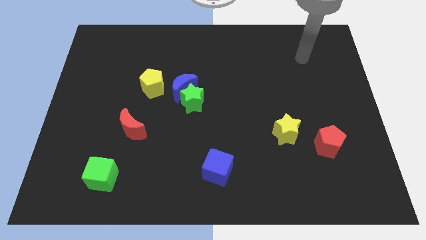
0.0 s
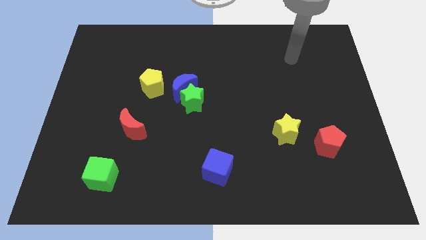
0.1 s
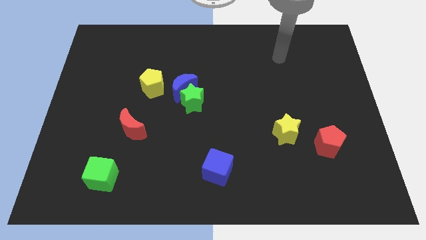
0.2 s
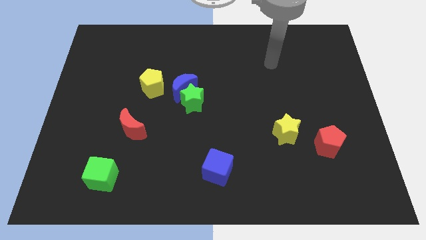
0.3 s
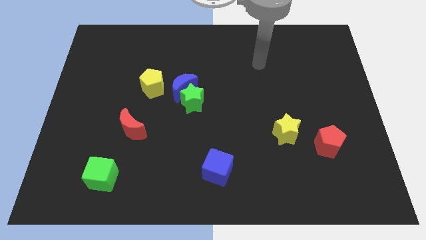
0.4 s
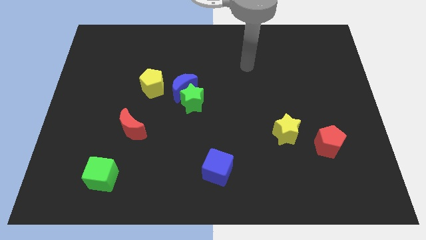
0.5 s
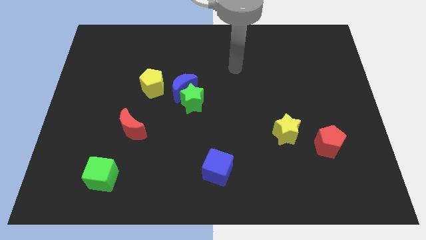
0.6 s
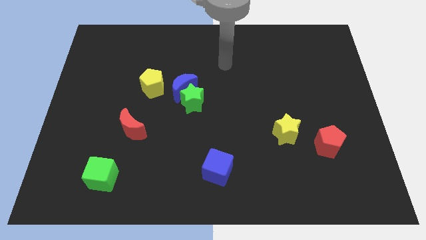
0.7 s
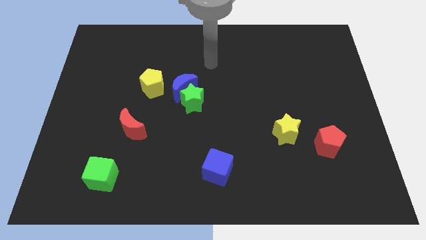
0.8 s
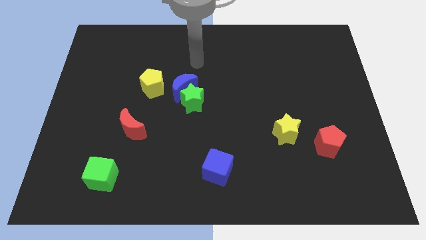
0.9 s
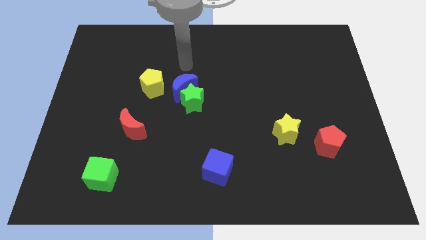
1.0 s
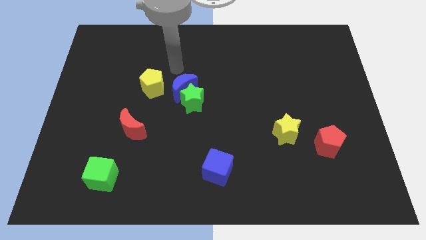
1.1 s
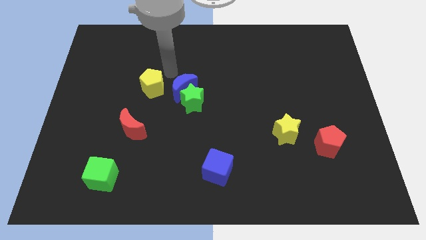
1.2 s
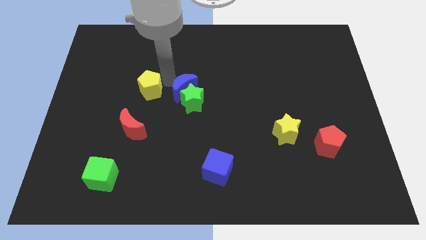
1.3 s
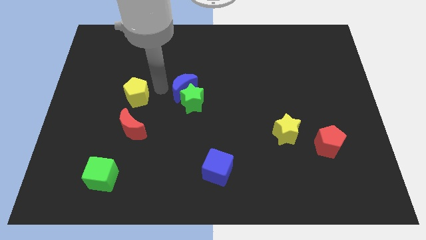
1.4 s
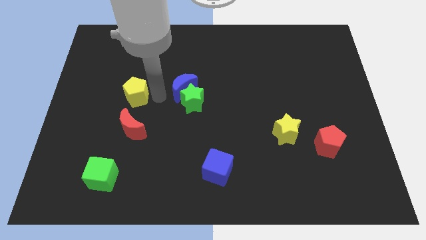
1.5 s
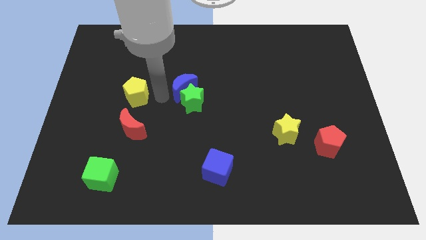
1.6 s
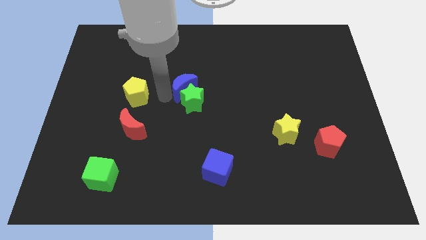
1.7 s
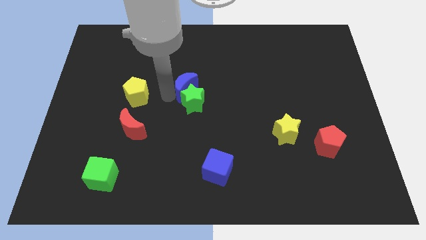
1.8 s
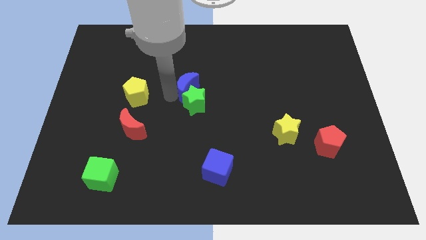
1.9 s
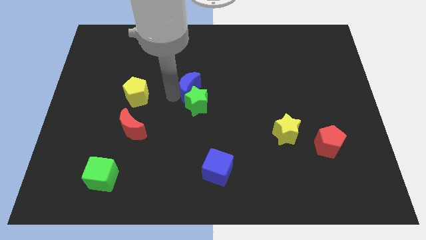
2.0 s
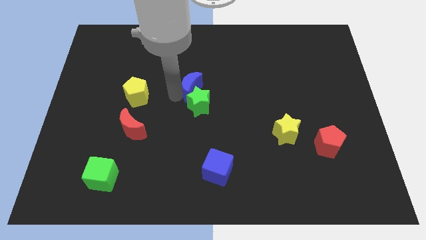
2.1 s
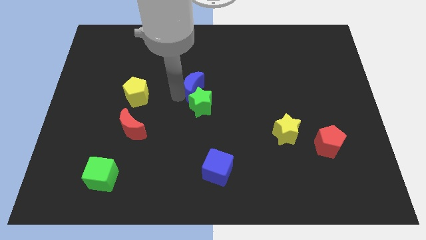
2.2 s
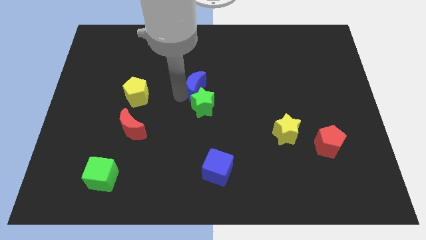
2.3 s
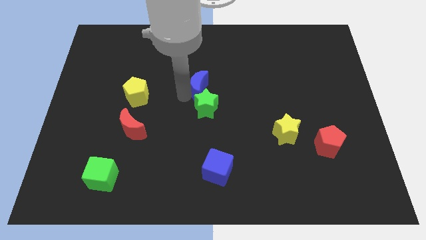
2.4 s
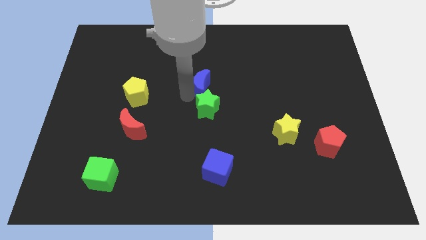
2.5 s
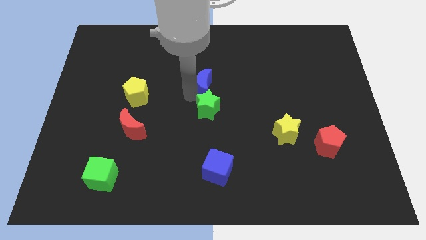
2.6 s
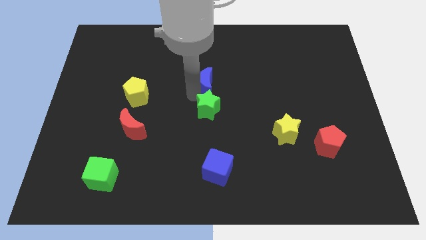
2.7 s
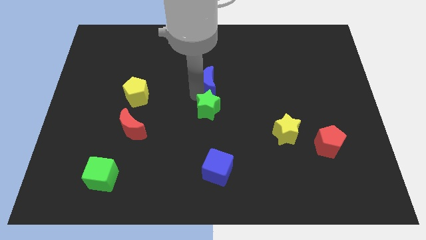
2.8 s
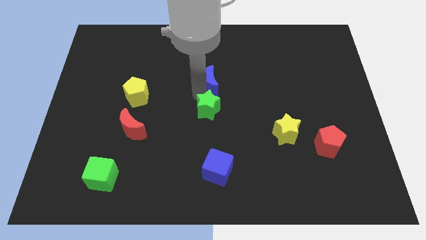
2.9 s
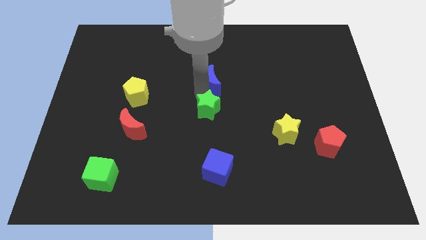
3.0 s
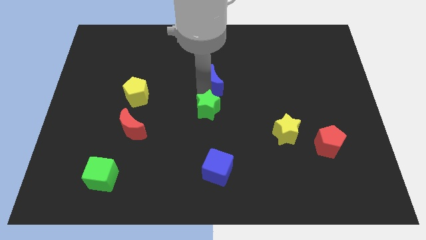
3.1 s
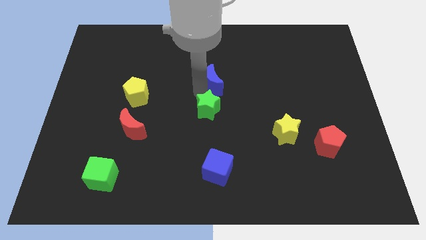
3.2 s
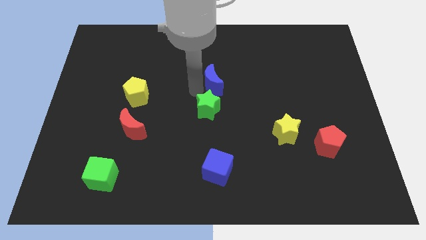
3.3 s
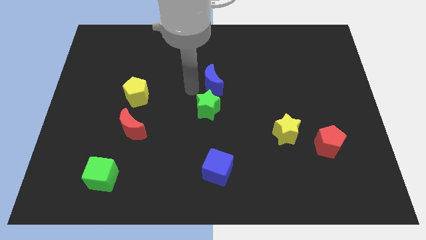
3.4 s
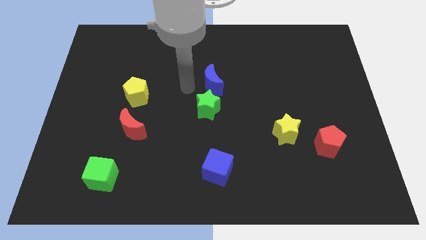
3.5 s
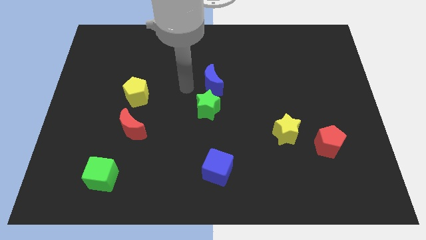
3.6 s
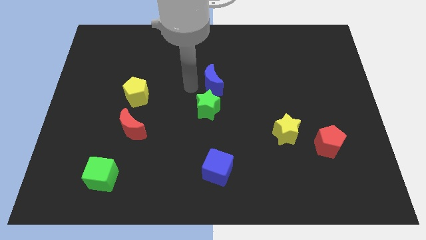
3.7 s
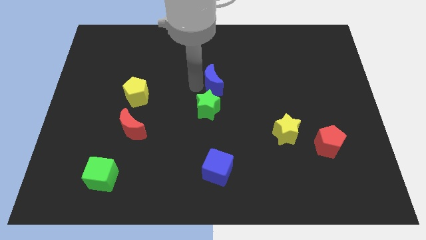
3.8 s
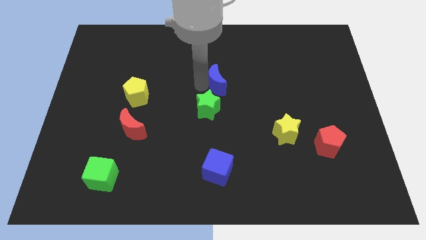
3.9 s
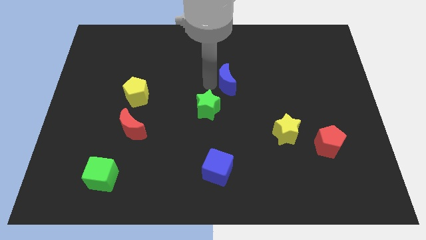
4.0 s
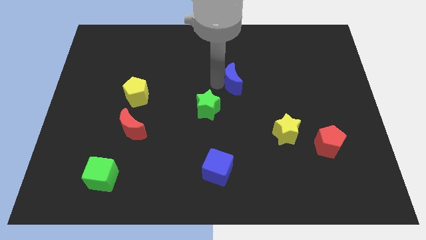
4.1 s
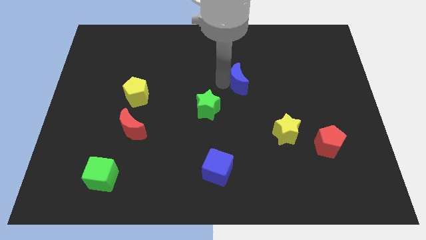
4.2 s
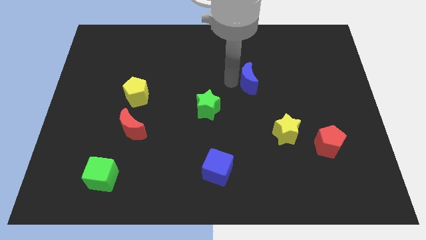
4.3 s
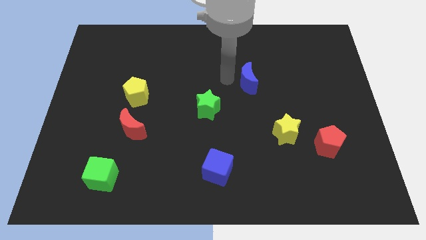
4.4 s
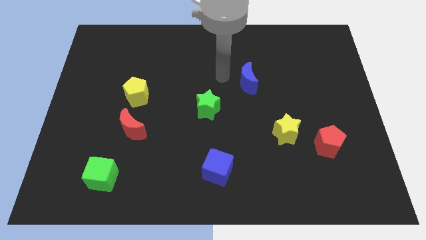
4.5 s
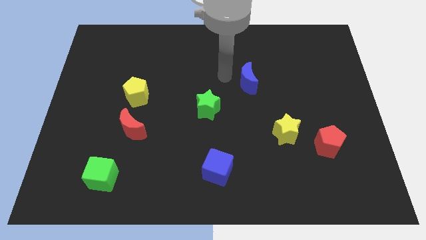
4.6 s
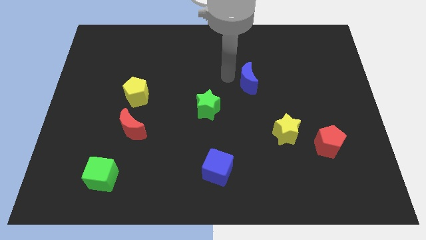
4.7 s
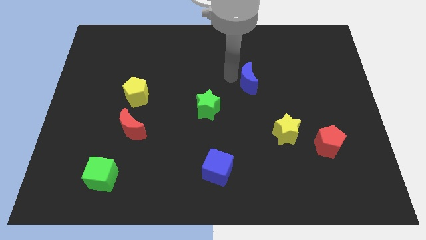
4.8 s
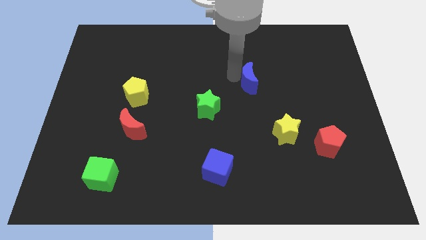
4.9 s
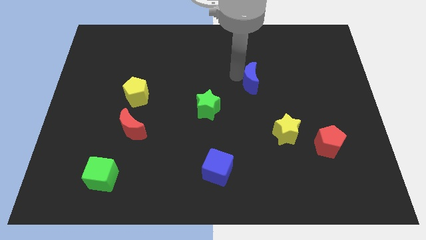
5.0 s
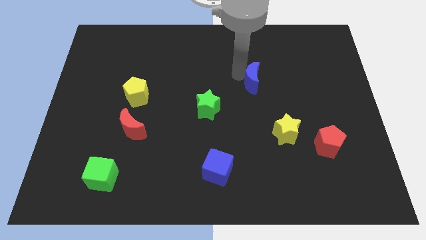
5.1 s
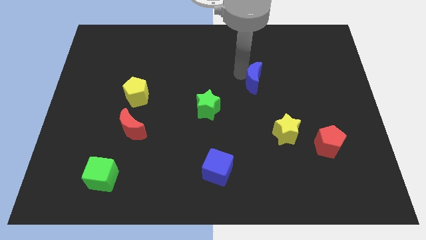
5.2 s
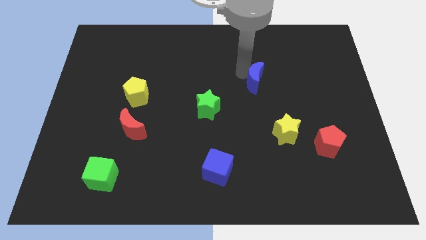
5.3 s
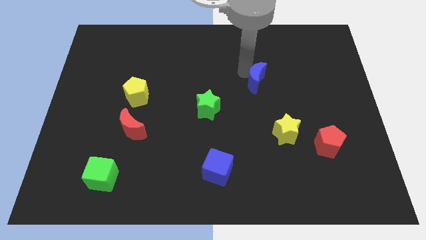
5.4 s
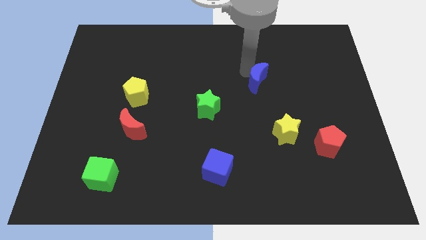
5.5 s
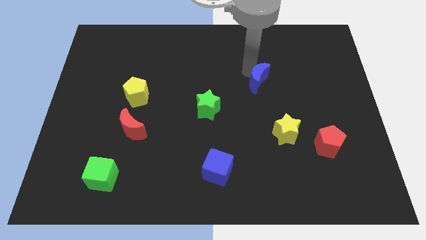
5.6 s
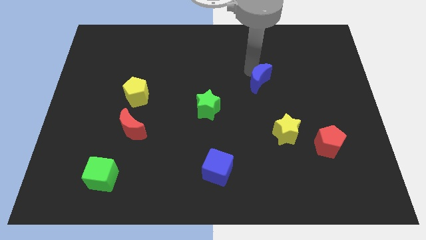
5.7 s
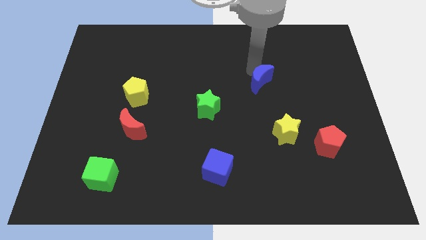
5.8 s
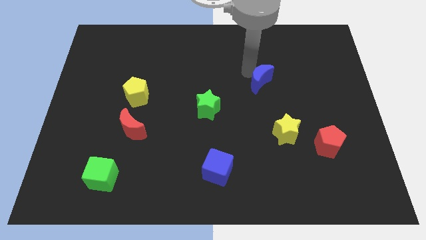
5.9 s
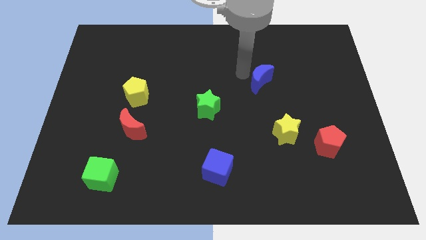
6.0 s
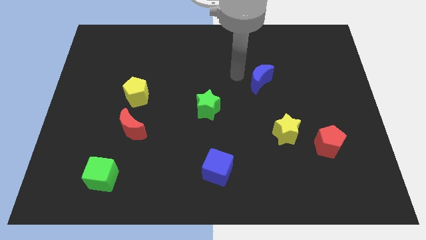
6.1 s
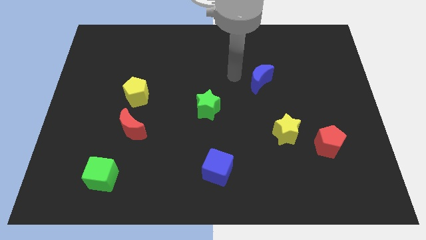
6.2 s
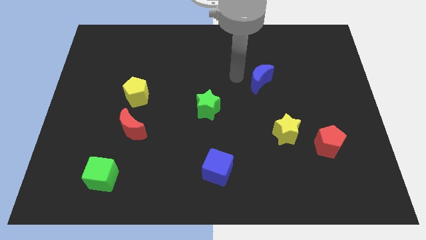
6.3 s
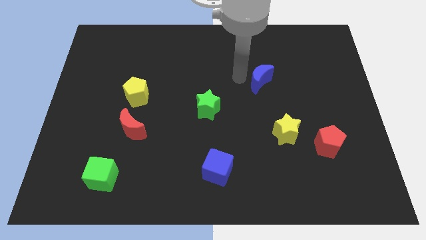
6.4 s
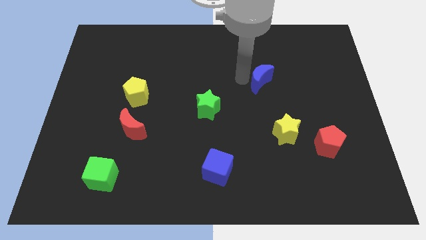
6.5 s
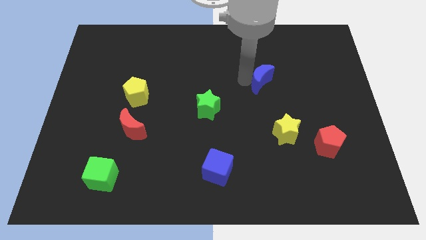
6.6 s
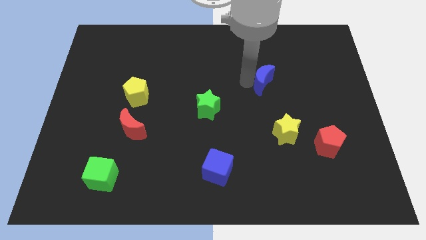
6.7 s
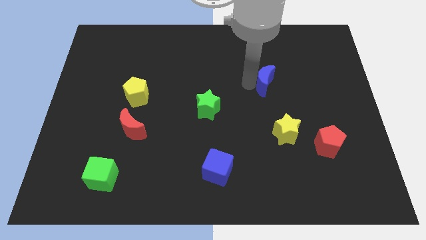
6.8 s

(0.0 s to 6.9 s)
slide the blue moon to the right

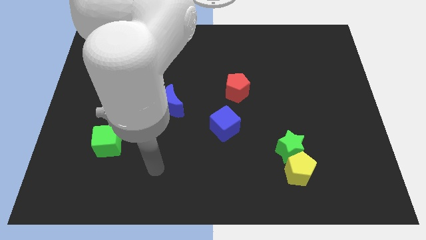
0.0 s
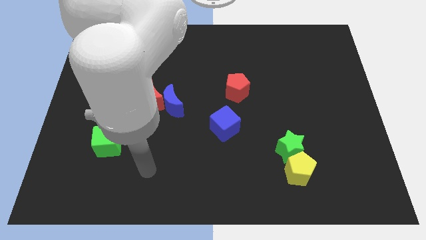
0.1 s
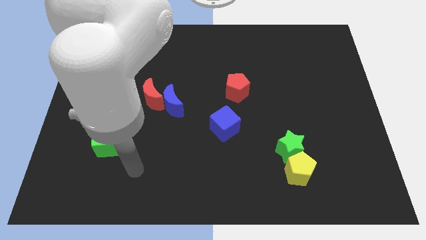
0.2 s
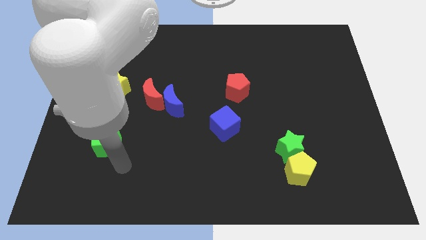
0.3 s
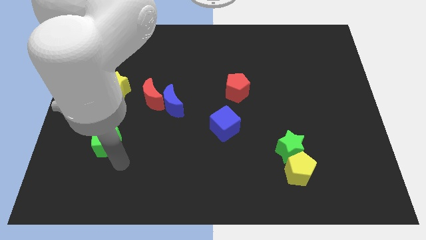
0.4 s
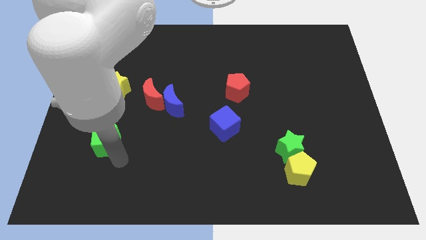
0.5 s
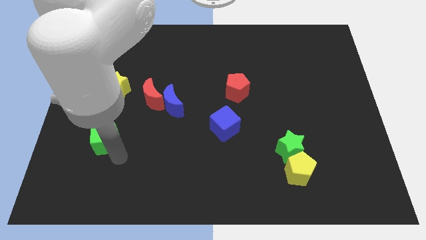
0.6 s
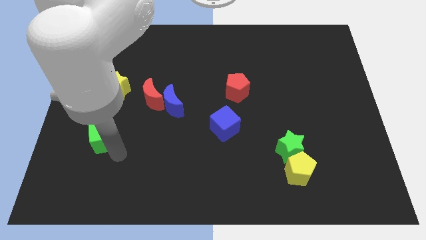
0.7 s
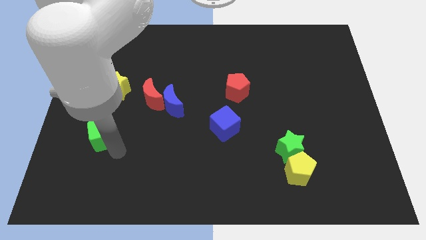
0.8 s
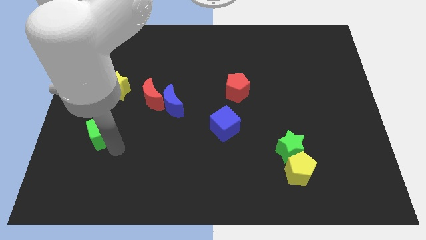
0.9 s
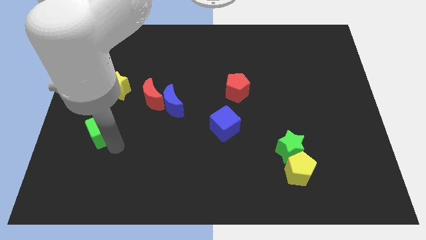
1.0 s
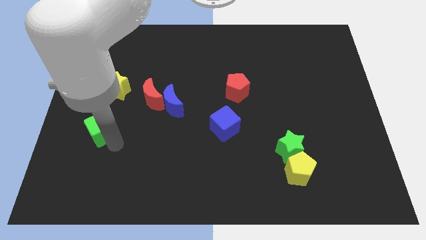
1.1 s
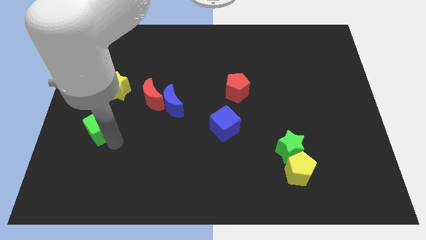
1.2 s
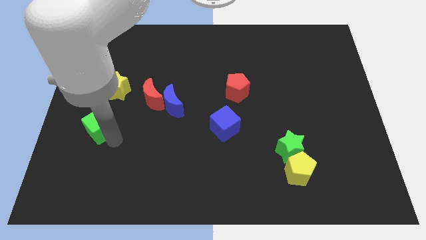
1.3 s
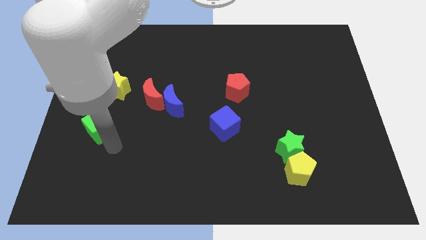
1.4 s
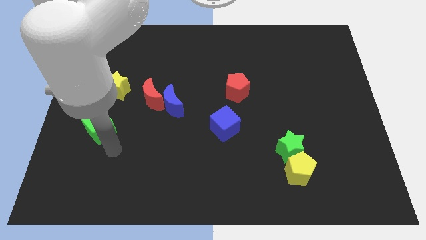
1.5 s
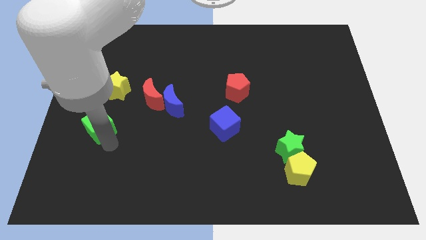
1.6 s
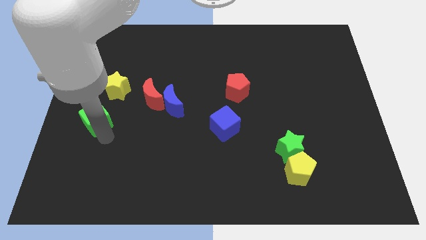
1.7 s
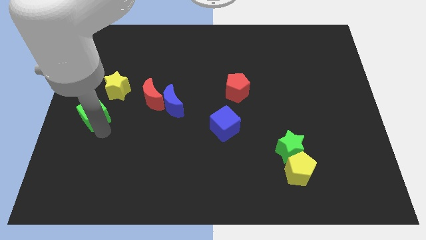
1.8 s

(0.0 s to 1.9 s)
slightly move the green cube upwards
